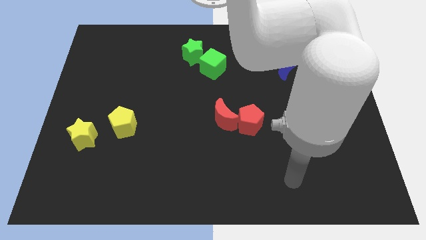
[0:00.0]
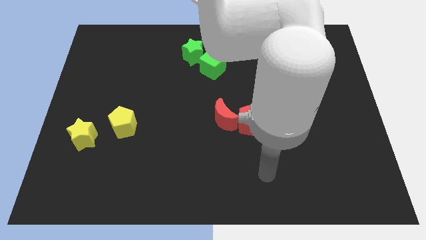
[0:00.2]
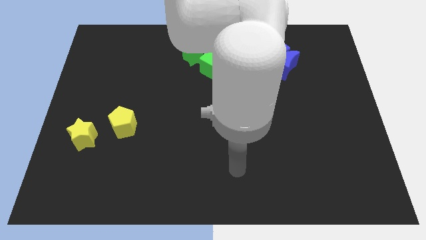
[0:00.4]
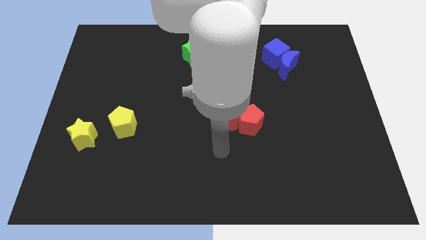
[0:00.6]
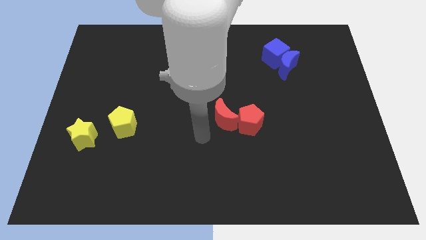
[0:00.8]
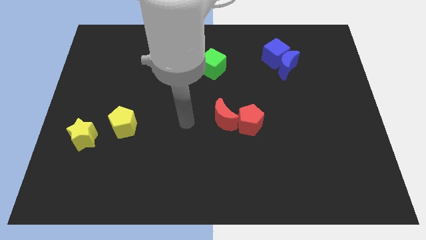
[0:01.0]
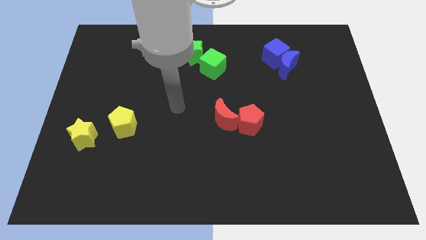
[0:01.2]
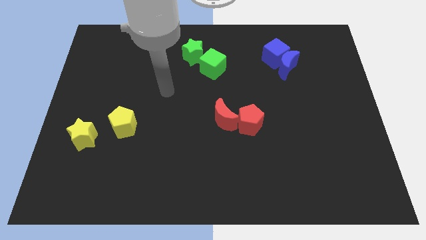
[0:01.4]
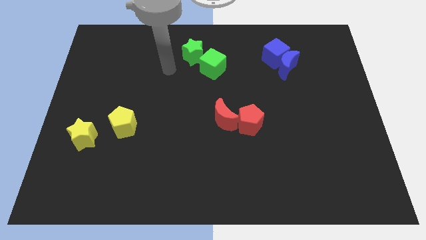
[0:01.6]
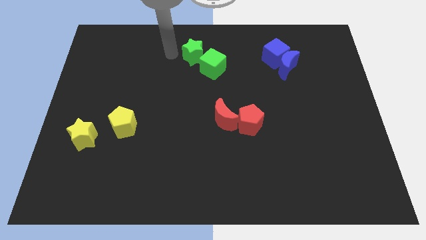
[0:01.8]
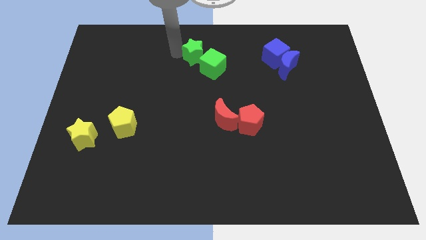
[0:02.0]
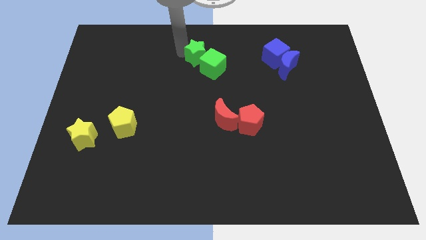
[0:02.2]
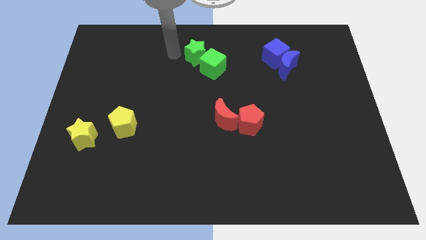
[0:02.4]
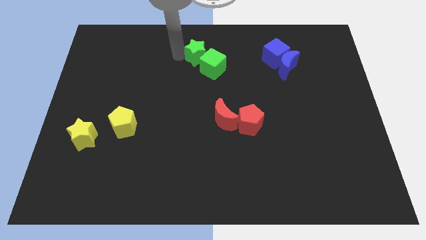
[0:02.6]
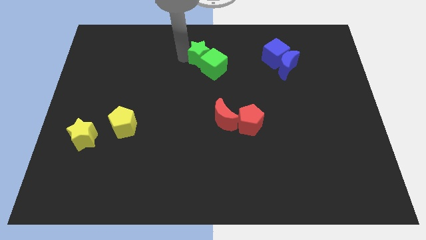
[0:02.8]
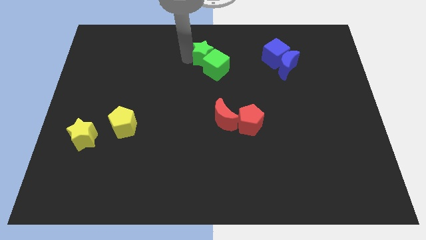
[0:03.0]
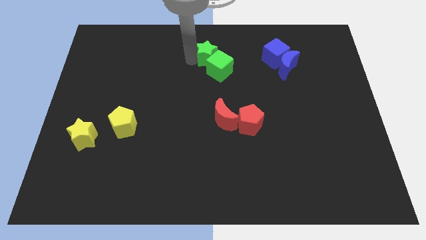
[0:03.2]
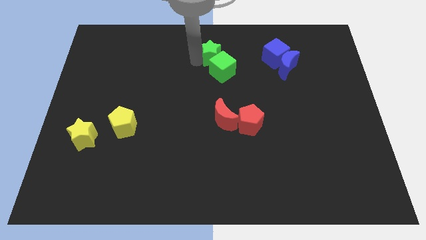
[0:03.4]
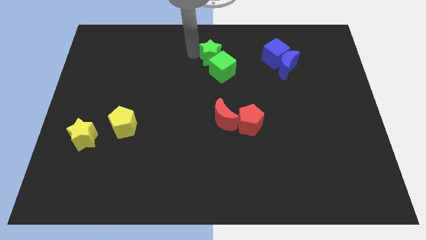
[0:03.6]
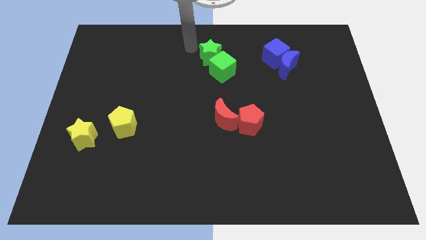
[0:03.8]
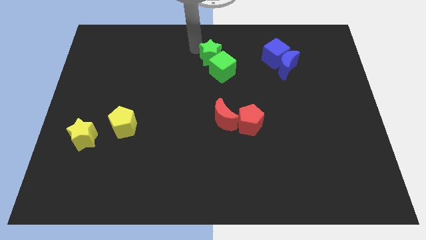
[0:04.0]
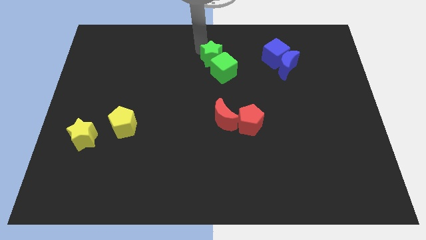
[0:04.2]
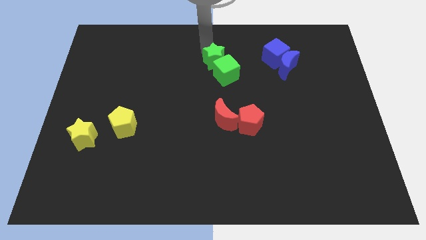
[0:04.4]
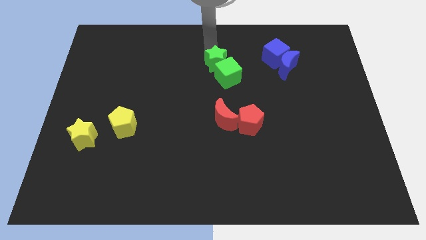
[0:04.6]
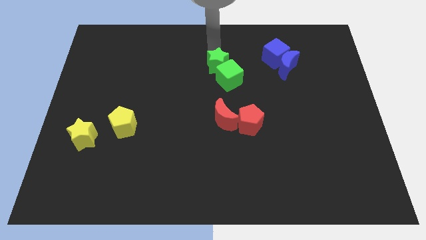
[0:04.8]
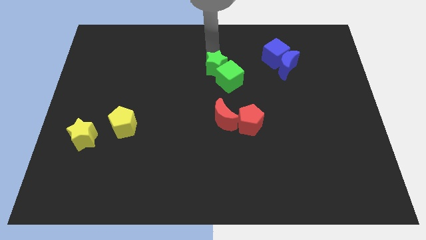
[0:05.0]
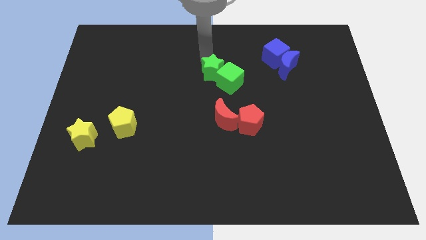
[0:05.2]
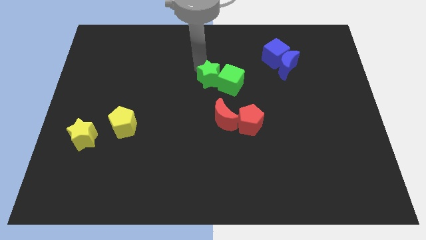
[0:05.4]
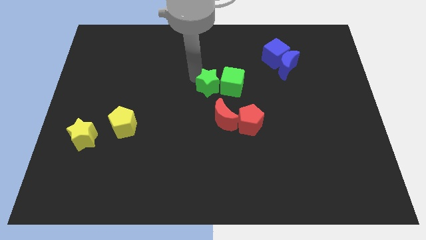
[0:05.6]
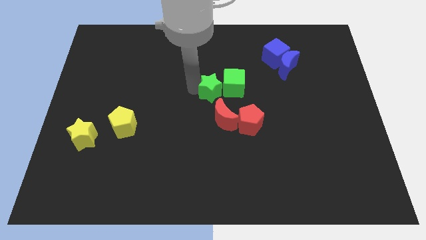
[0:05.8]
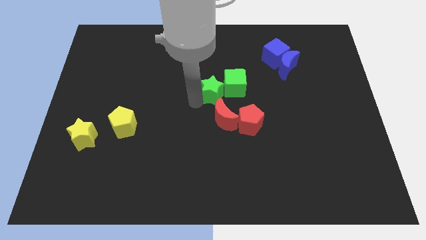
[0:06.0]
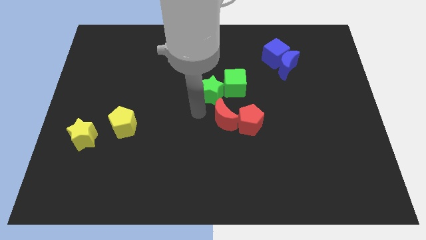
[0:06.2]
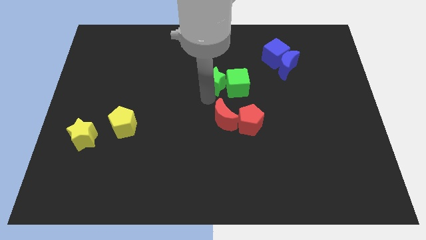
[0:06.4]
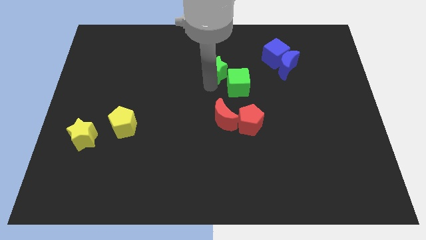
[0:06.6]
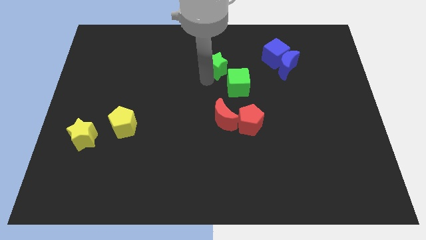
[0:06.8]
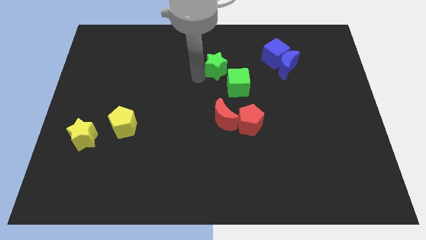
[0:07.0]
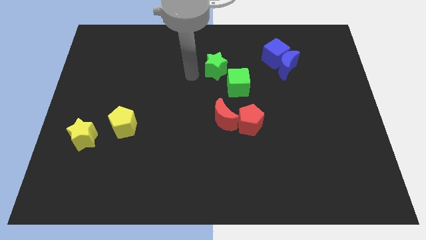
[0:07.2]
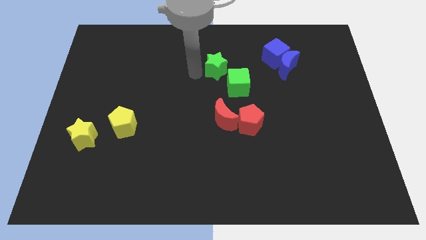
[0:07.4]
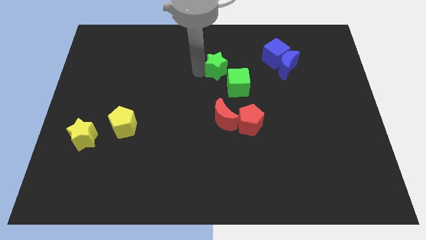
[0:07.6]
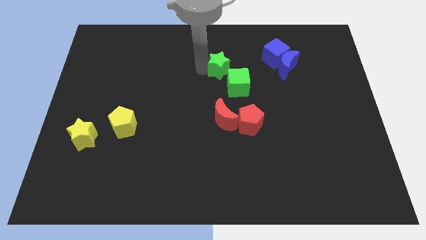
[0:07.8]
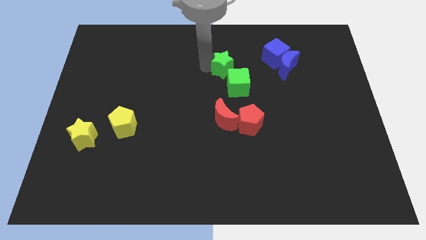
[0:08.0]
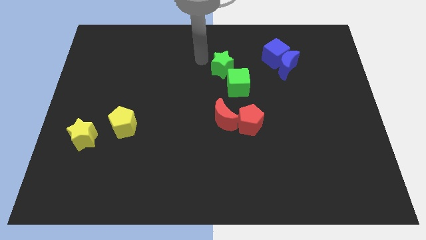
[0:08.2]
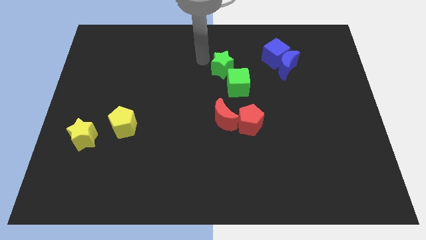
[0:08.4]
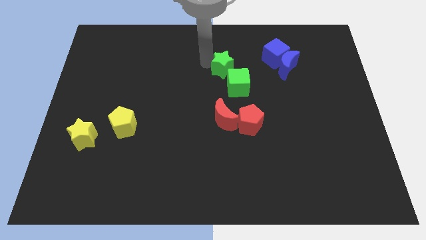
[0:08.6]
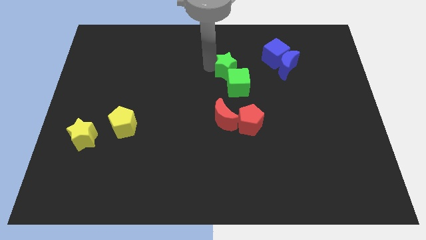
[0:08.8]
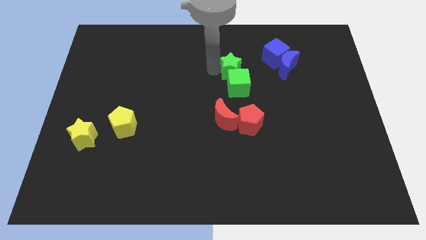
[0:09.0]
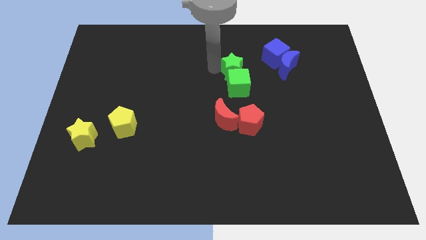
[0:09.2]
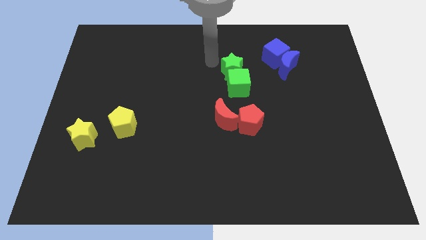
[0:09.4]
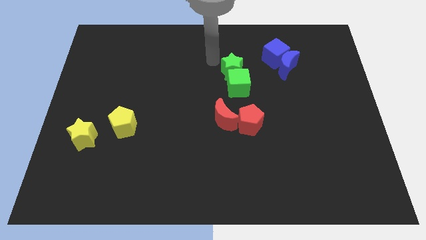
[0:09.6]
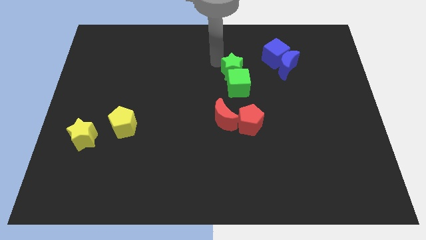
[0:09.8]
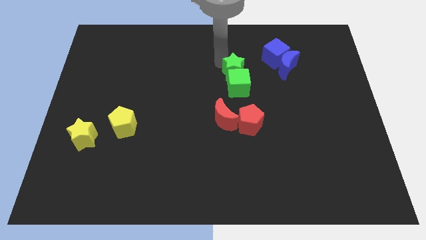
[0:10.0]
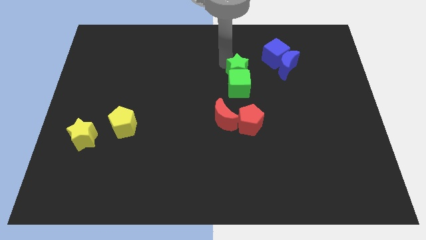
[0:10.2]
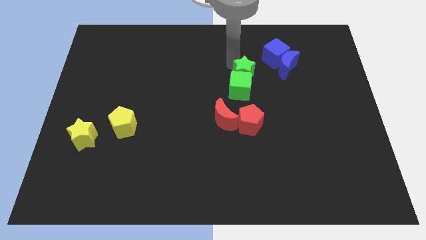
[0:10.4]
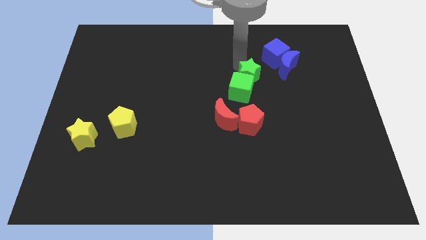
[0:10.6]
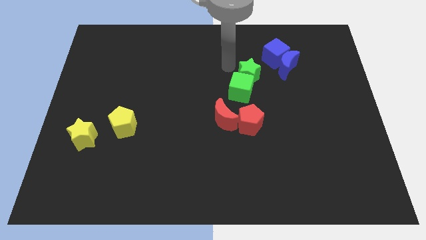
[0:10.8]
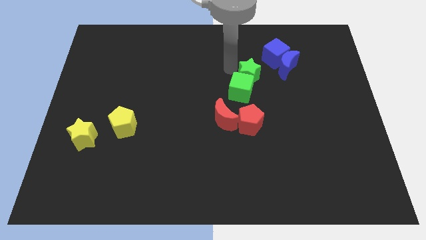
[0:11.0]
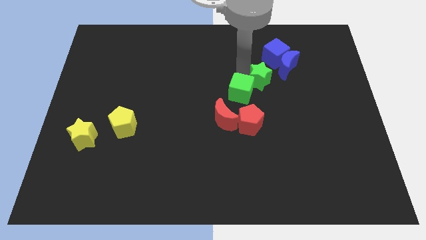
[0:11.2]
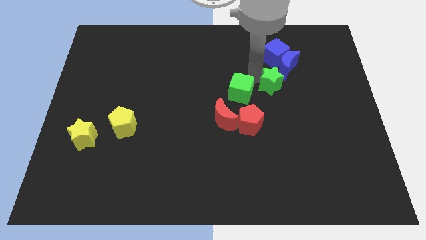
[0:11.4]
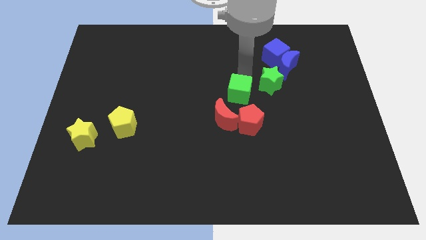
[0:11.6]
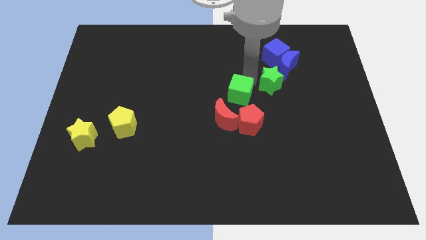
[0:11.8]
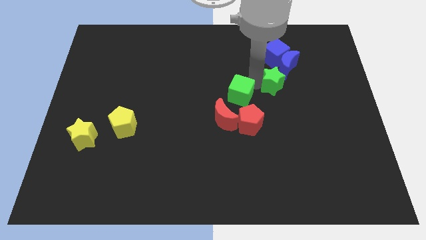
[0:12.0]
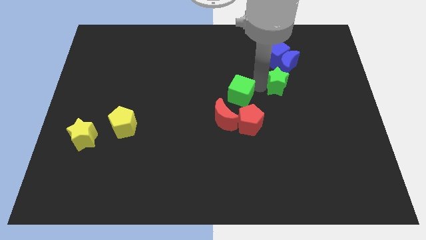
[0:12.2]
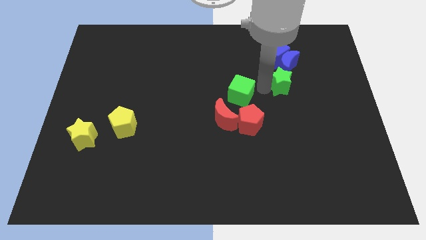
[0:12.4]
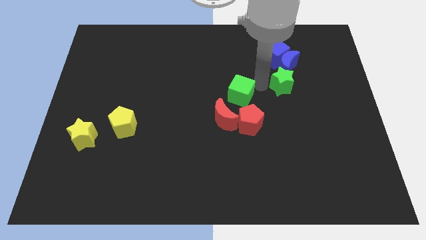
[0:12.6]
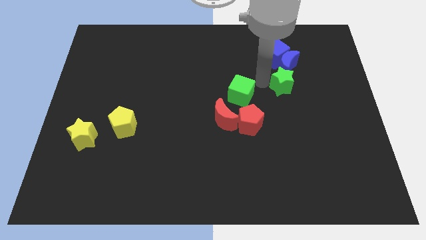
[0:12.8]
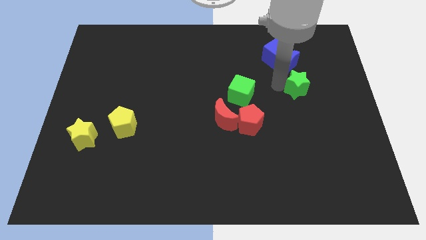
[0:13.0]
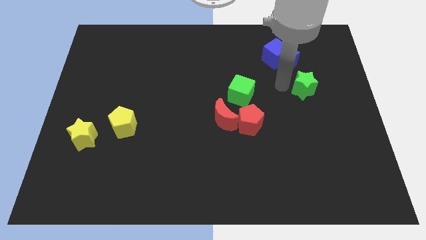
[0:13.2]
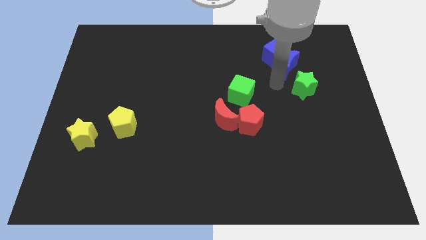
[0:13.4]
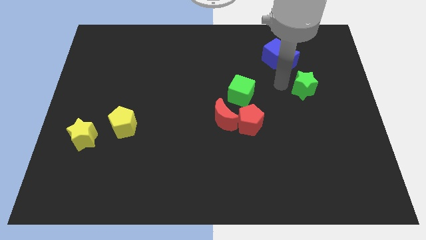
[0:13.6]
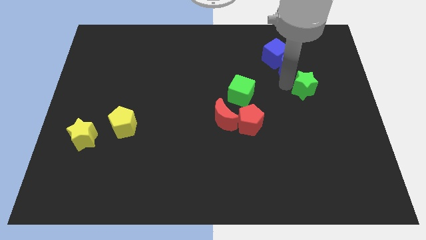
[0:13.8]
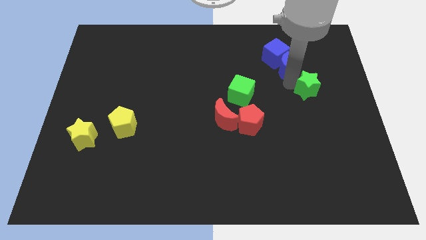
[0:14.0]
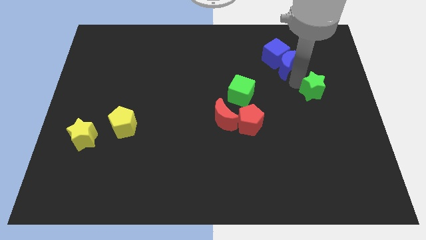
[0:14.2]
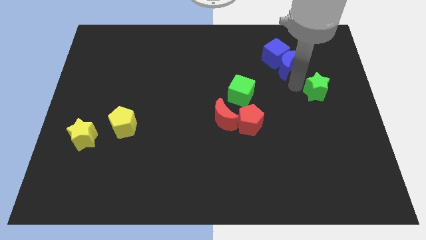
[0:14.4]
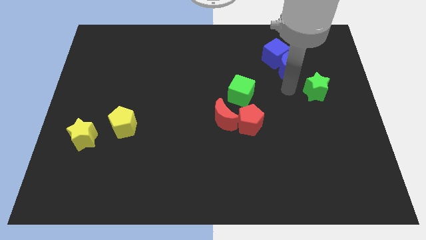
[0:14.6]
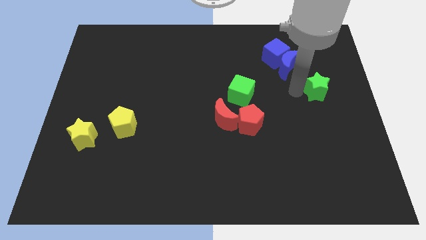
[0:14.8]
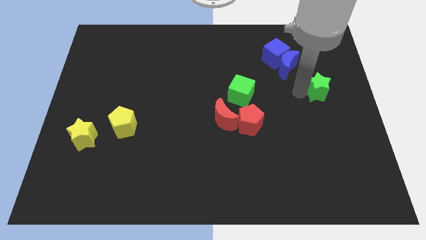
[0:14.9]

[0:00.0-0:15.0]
move the green star to the right side
